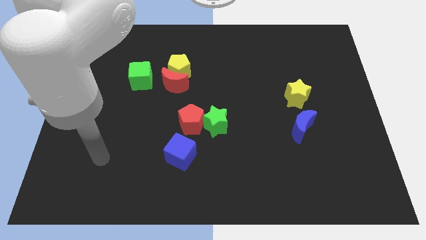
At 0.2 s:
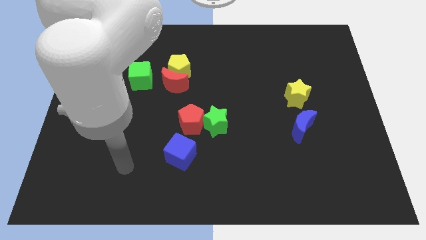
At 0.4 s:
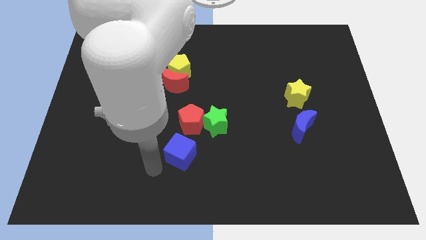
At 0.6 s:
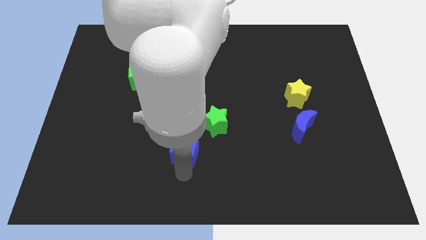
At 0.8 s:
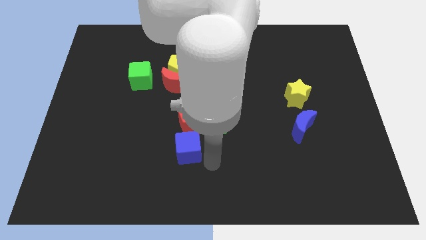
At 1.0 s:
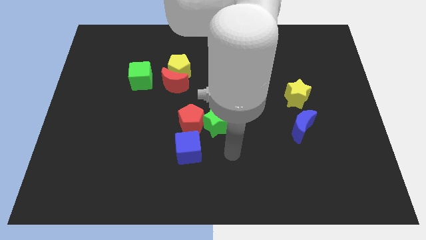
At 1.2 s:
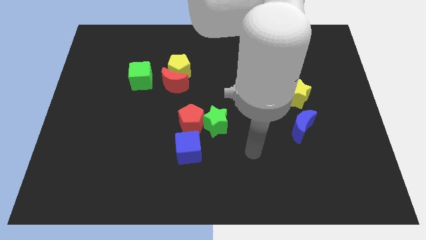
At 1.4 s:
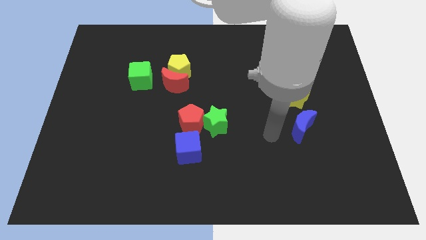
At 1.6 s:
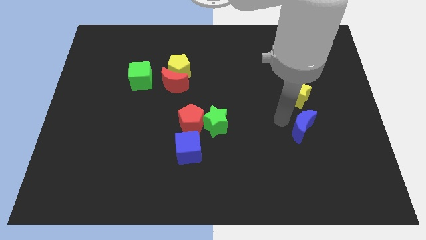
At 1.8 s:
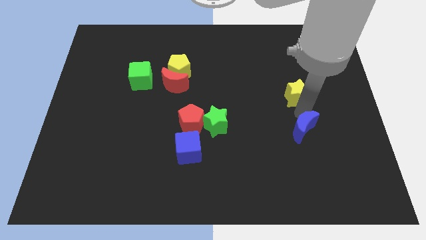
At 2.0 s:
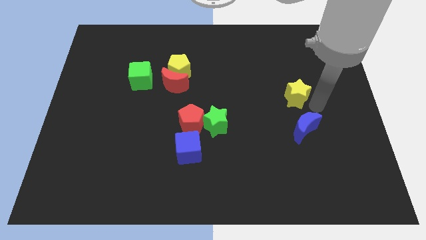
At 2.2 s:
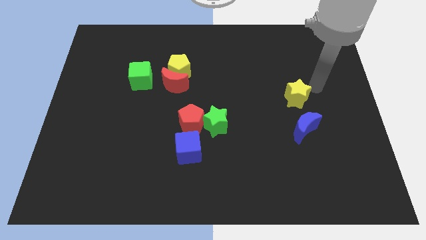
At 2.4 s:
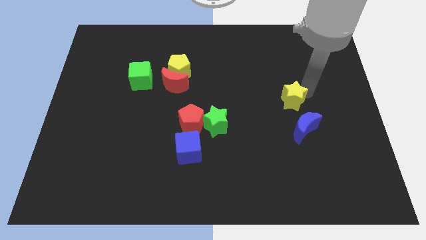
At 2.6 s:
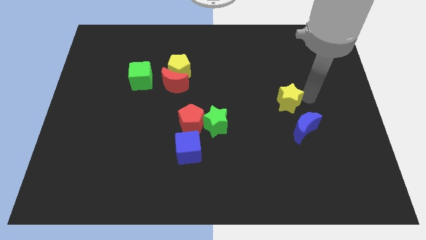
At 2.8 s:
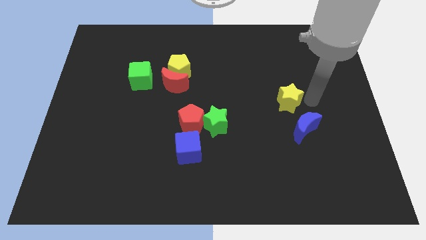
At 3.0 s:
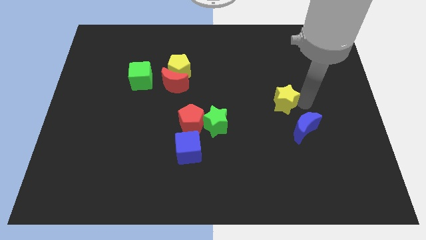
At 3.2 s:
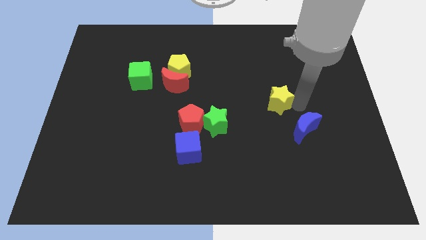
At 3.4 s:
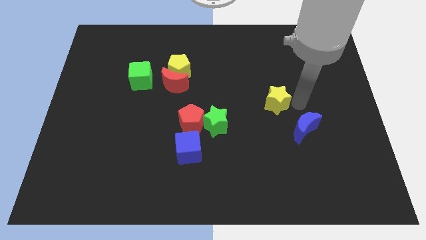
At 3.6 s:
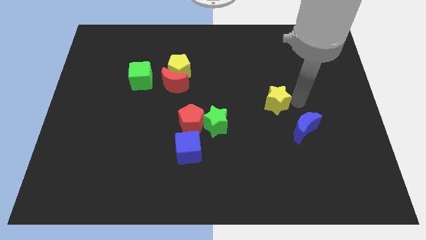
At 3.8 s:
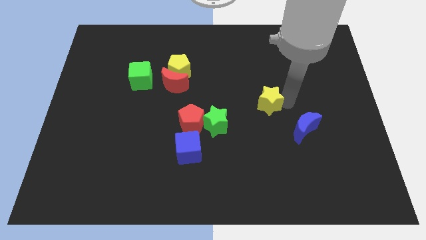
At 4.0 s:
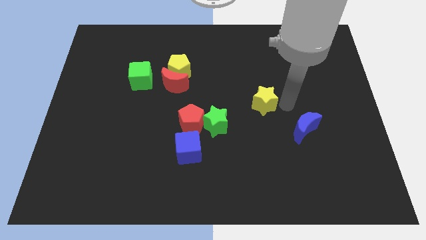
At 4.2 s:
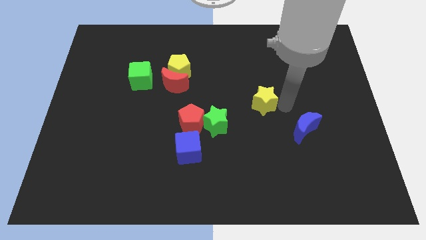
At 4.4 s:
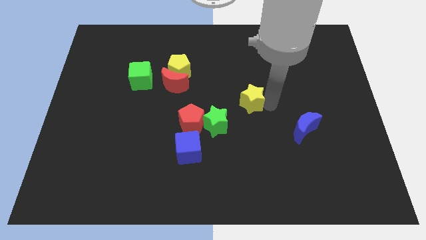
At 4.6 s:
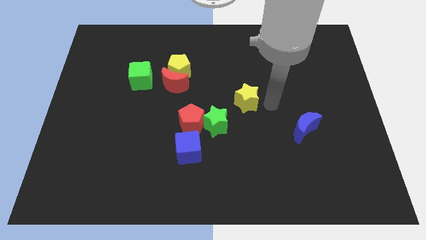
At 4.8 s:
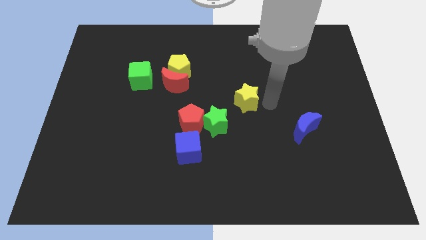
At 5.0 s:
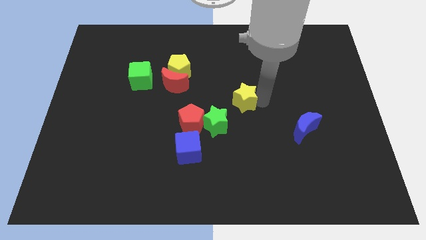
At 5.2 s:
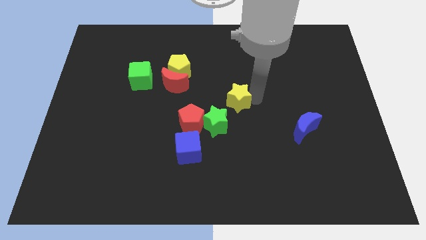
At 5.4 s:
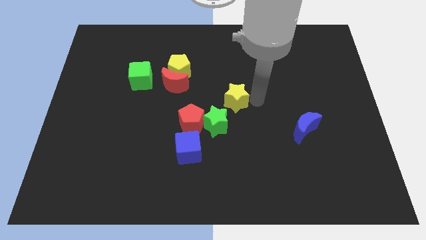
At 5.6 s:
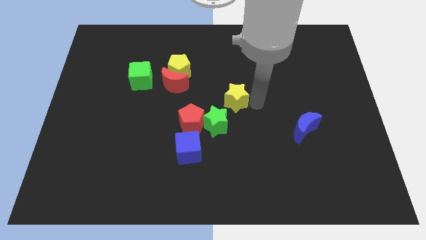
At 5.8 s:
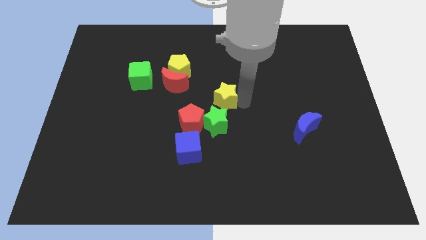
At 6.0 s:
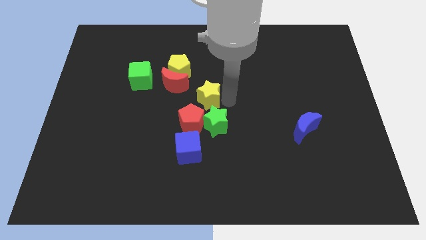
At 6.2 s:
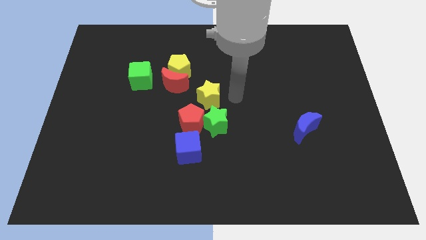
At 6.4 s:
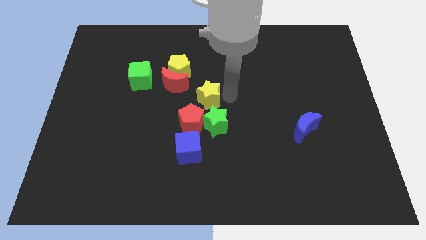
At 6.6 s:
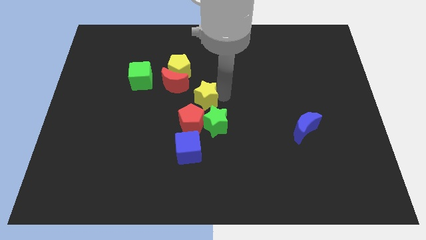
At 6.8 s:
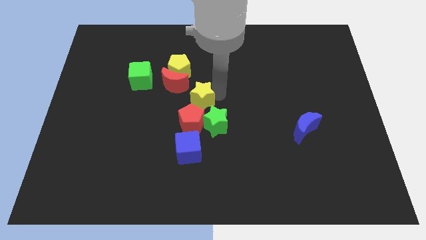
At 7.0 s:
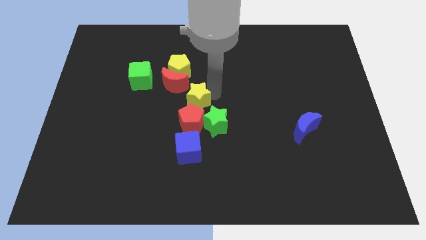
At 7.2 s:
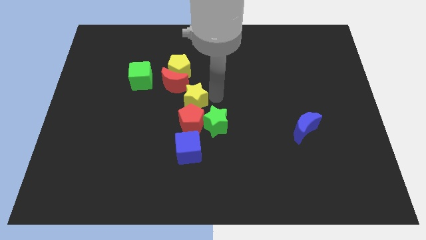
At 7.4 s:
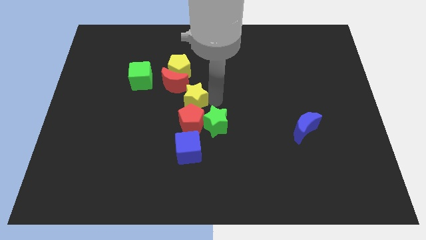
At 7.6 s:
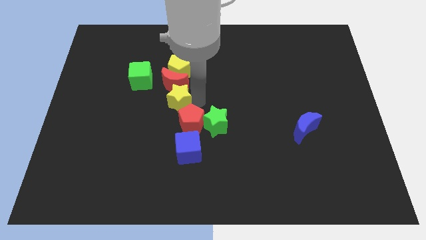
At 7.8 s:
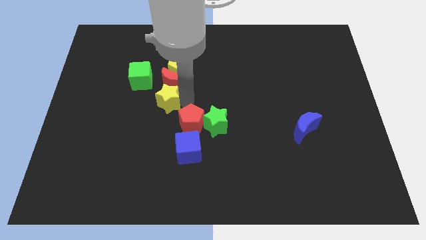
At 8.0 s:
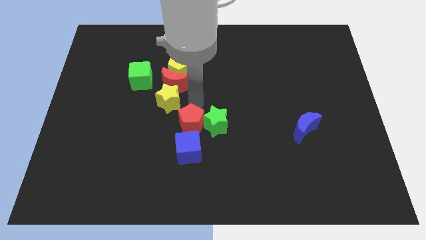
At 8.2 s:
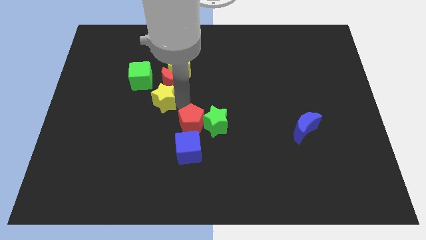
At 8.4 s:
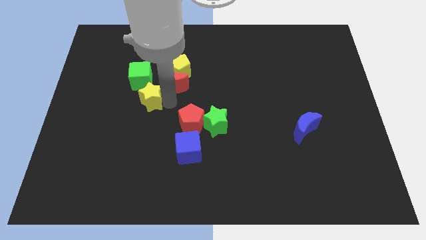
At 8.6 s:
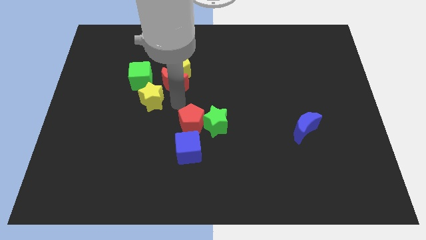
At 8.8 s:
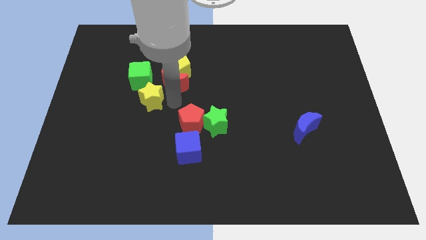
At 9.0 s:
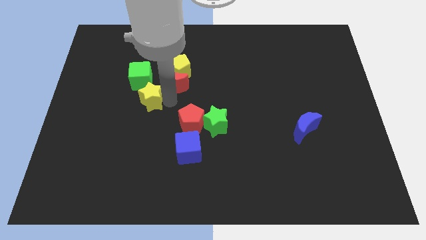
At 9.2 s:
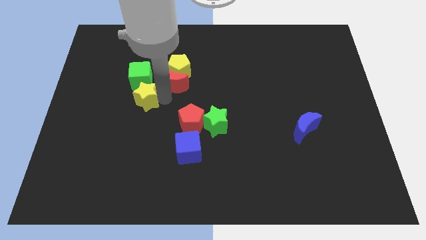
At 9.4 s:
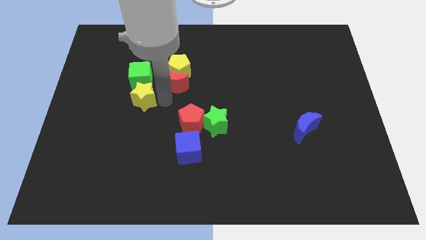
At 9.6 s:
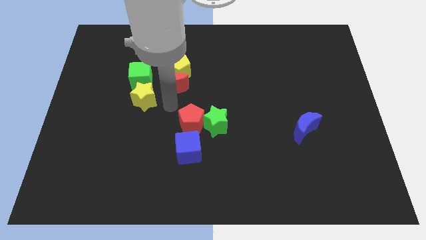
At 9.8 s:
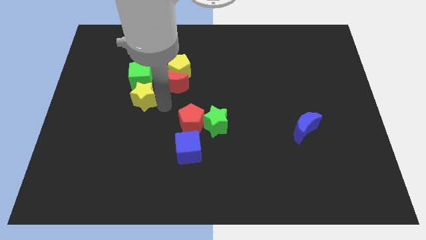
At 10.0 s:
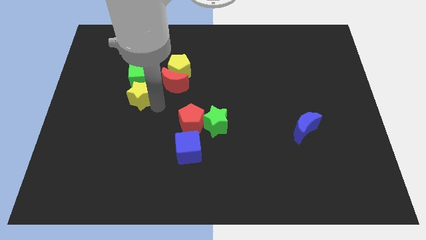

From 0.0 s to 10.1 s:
push the yellow star diagonally down and to the left of the green cube

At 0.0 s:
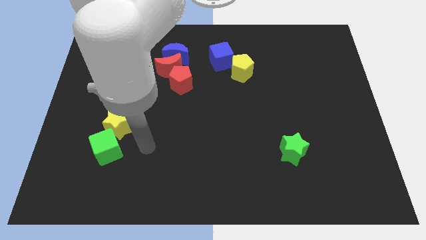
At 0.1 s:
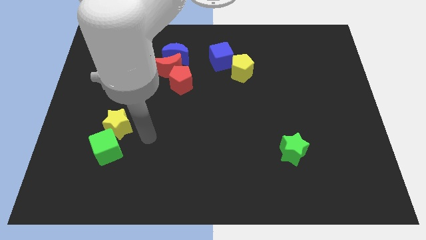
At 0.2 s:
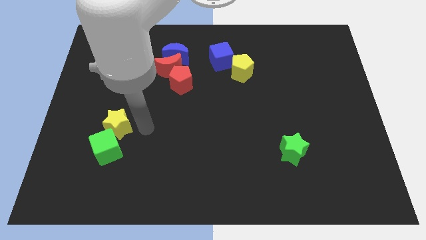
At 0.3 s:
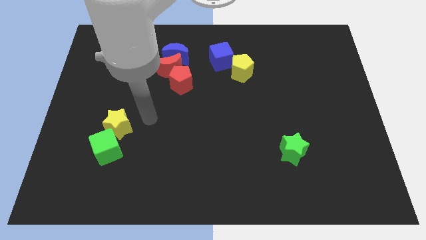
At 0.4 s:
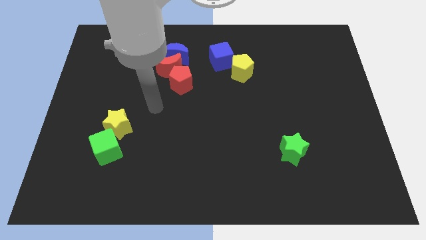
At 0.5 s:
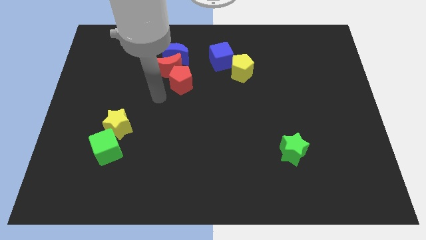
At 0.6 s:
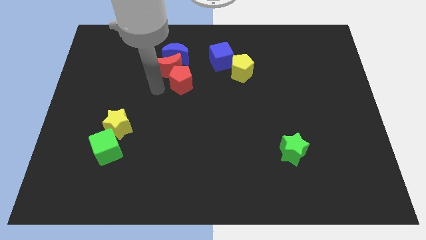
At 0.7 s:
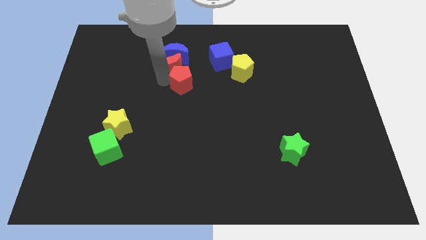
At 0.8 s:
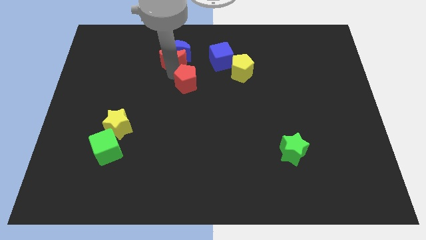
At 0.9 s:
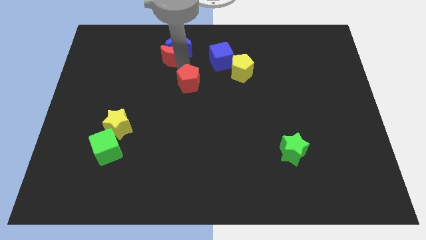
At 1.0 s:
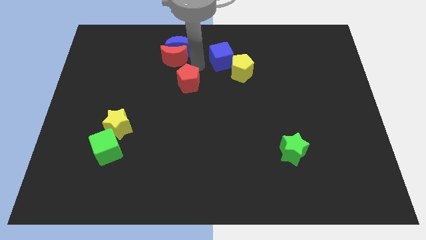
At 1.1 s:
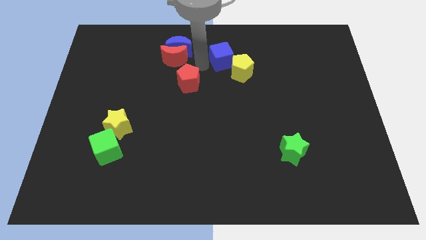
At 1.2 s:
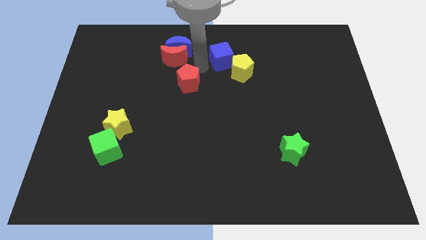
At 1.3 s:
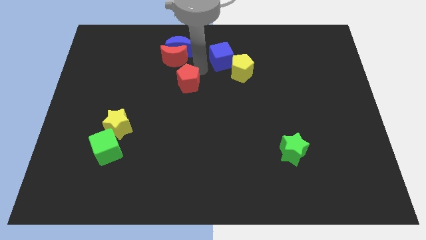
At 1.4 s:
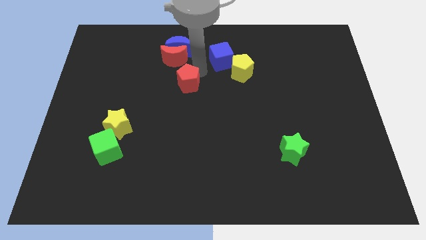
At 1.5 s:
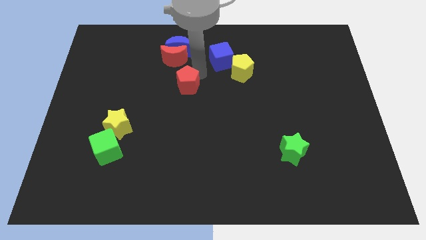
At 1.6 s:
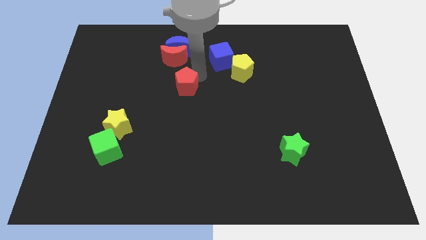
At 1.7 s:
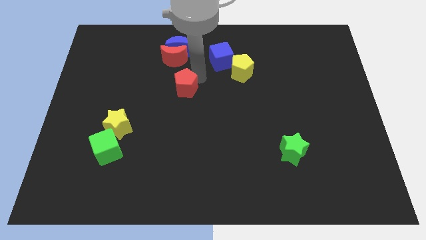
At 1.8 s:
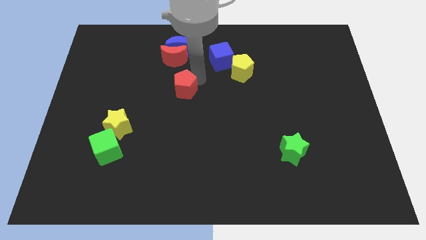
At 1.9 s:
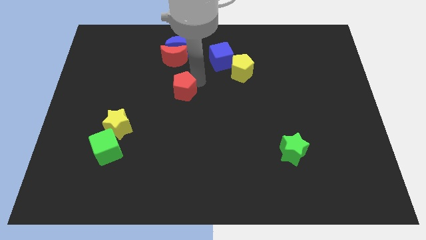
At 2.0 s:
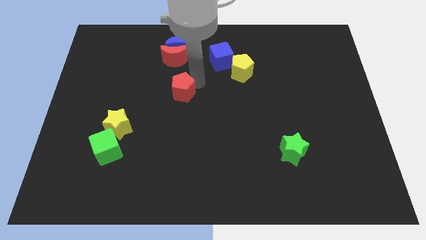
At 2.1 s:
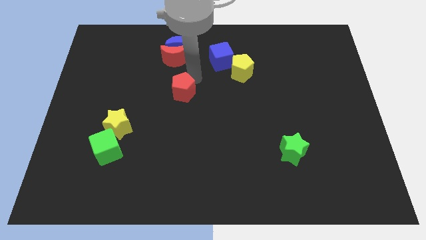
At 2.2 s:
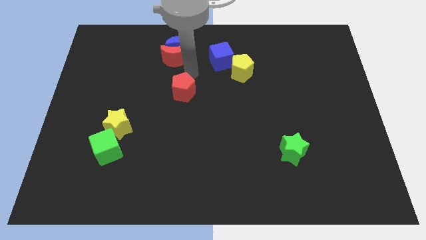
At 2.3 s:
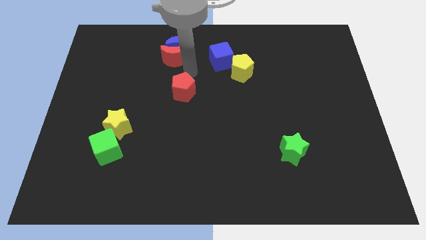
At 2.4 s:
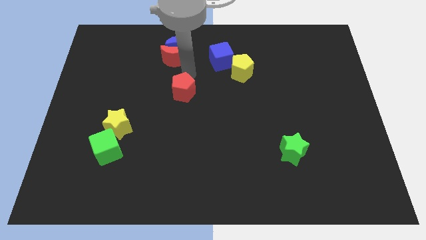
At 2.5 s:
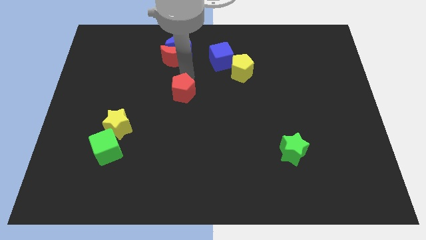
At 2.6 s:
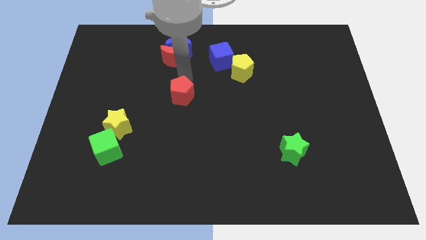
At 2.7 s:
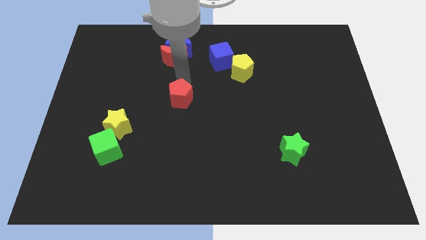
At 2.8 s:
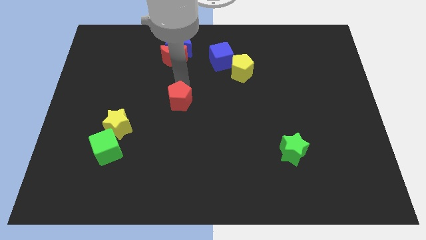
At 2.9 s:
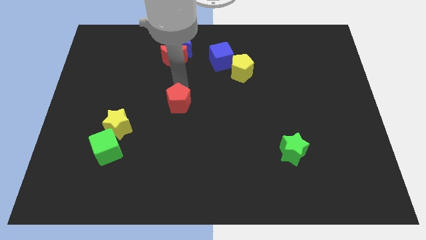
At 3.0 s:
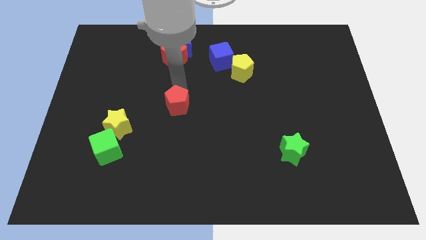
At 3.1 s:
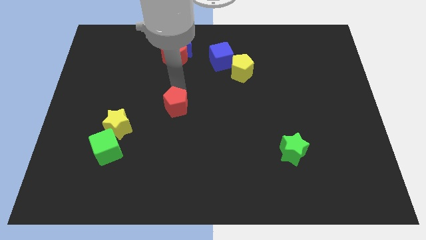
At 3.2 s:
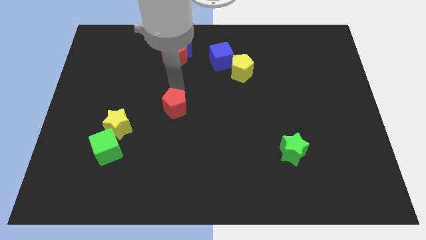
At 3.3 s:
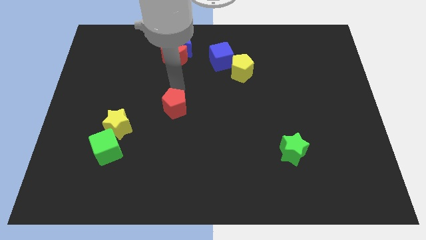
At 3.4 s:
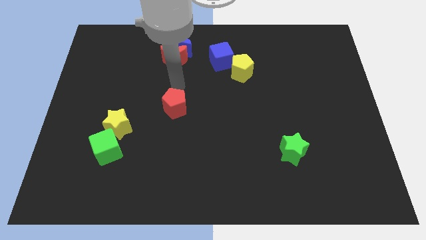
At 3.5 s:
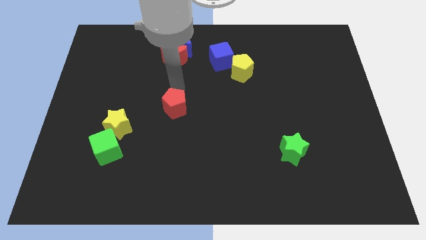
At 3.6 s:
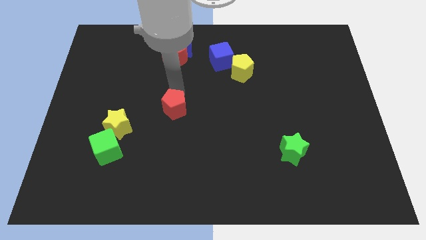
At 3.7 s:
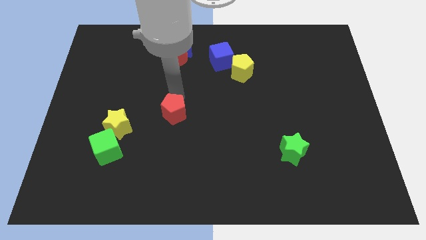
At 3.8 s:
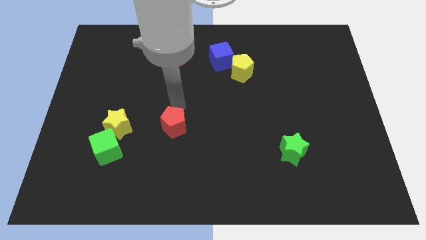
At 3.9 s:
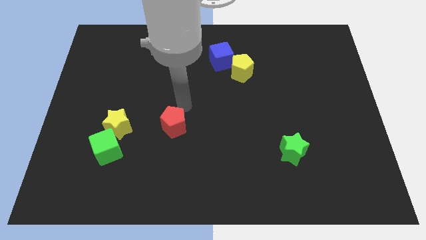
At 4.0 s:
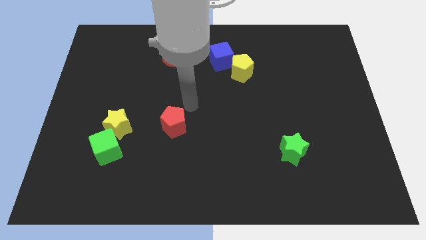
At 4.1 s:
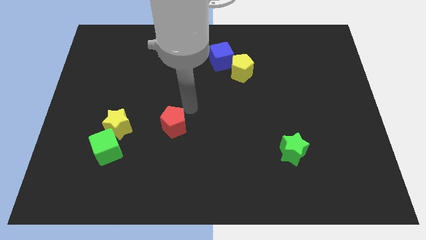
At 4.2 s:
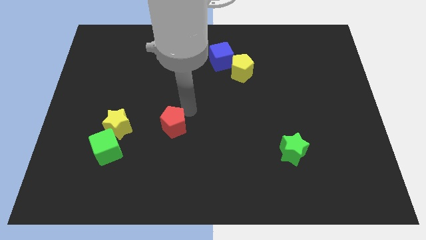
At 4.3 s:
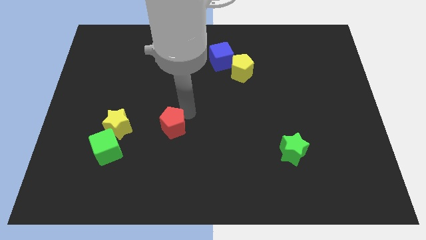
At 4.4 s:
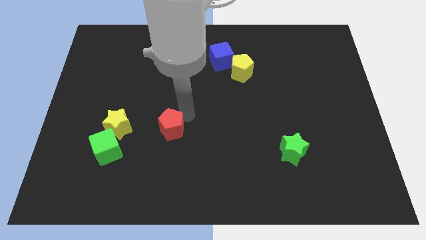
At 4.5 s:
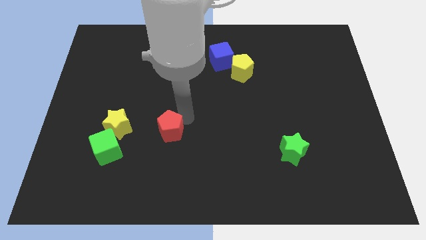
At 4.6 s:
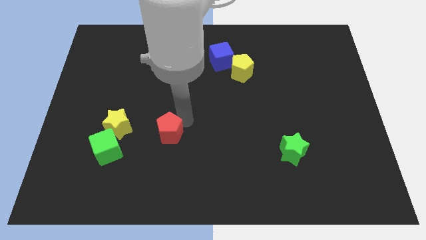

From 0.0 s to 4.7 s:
push the red pentagon right of the green cube
